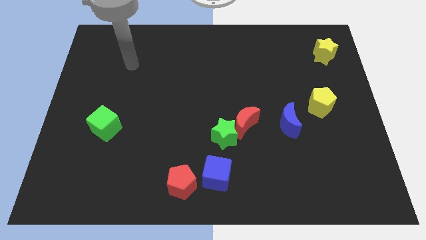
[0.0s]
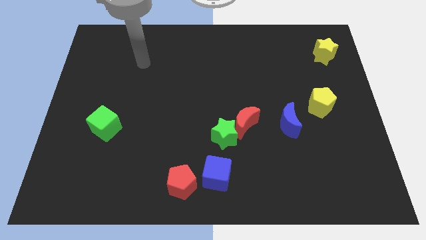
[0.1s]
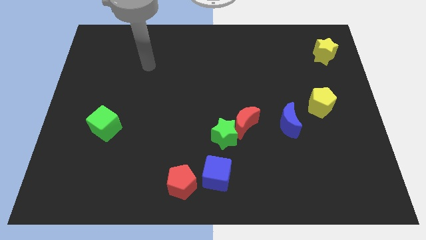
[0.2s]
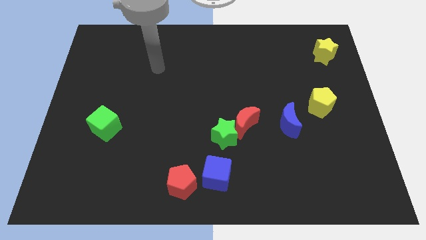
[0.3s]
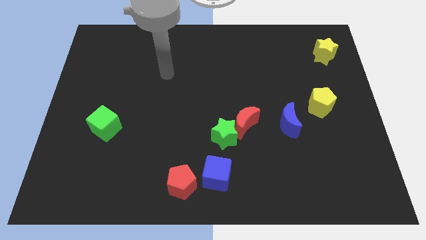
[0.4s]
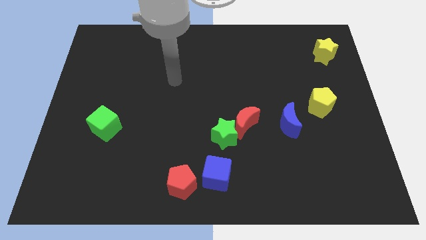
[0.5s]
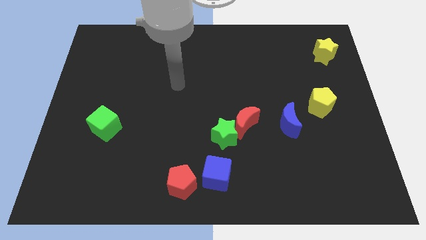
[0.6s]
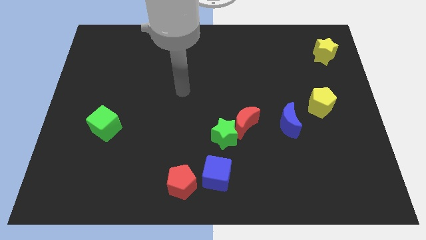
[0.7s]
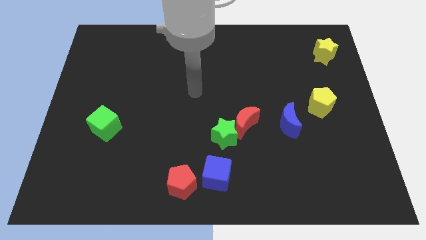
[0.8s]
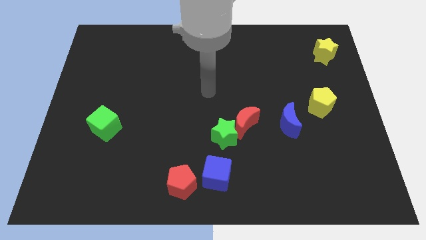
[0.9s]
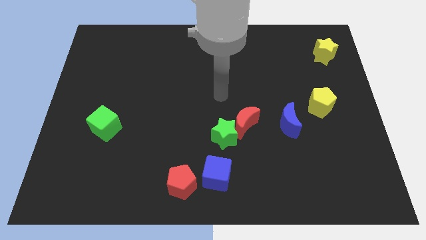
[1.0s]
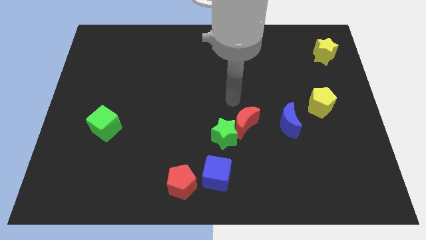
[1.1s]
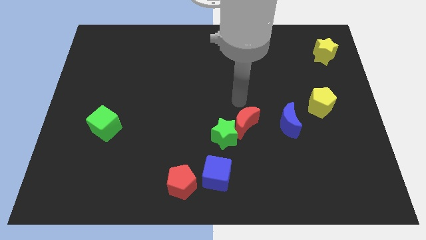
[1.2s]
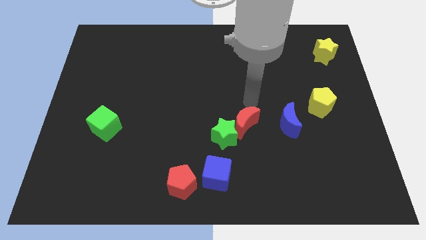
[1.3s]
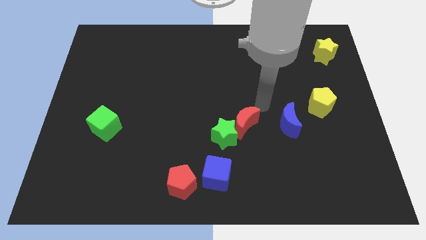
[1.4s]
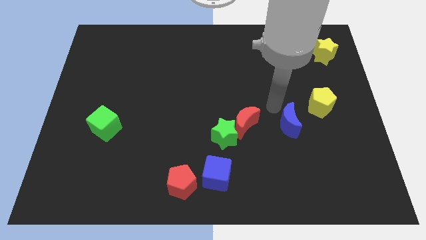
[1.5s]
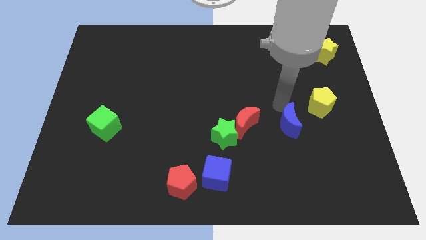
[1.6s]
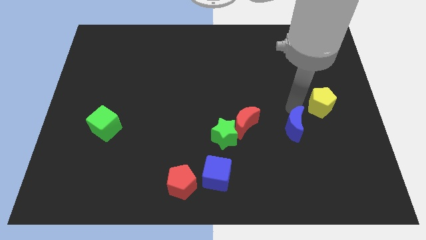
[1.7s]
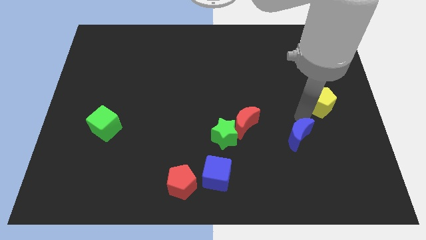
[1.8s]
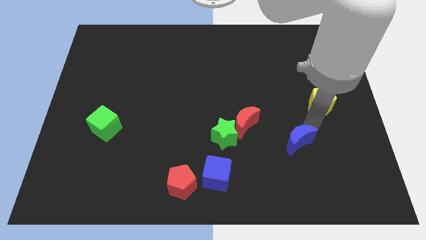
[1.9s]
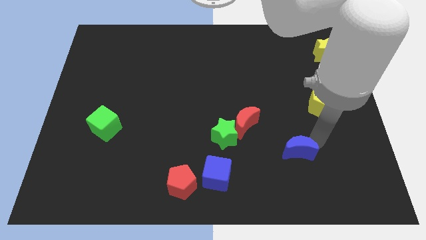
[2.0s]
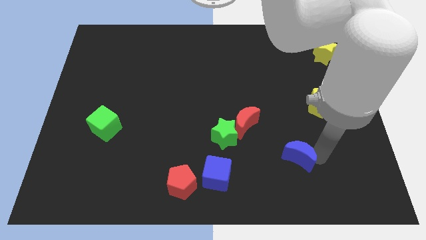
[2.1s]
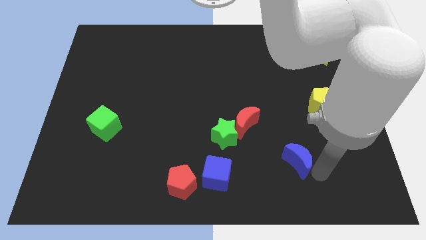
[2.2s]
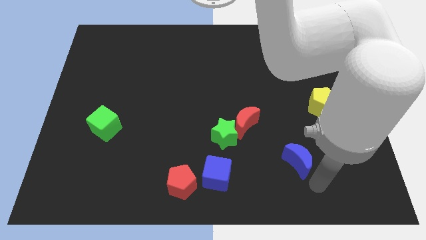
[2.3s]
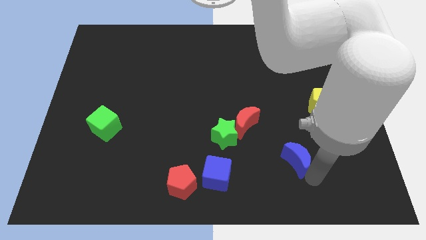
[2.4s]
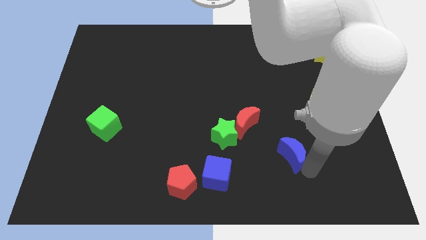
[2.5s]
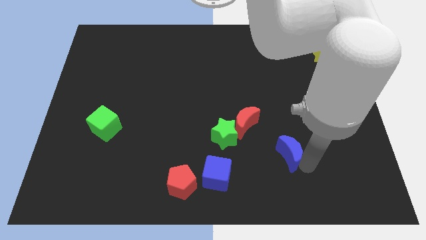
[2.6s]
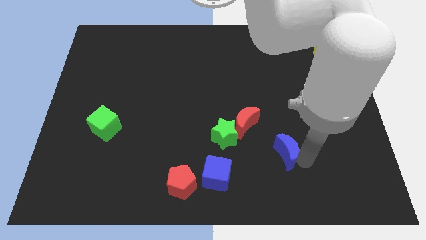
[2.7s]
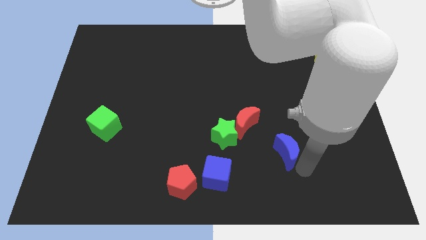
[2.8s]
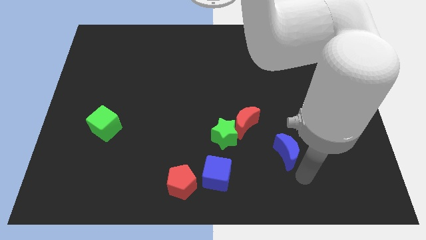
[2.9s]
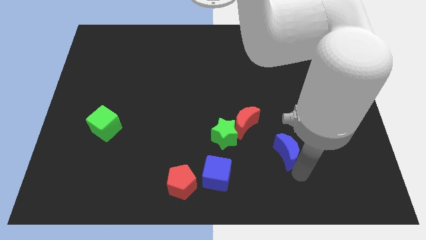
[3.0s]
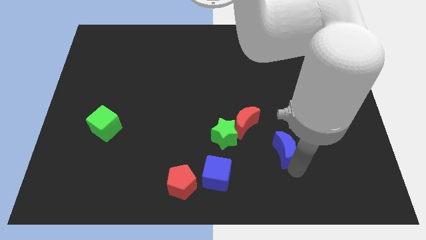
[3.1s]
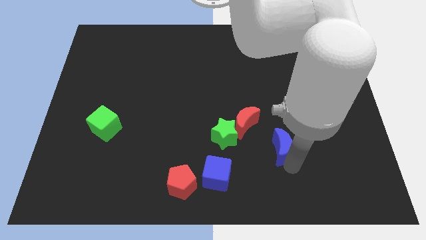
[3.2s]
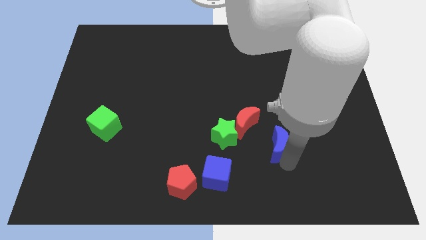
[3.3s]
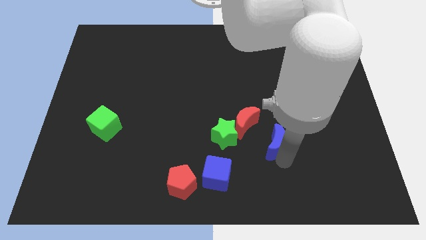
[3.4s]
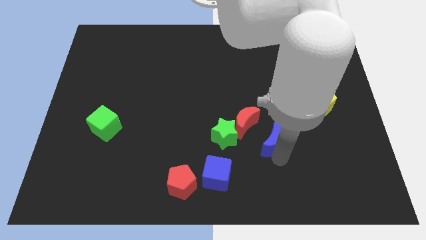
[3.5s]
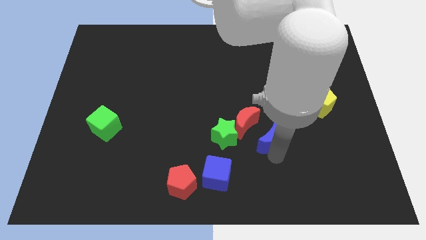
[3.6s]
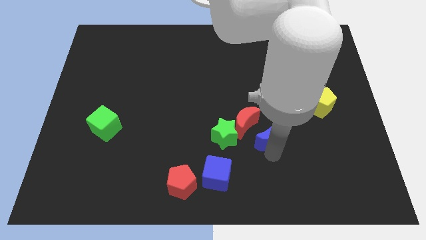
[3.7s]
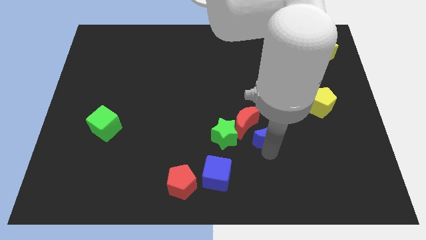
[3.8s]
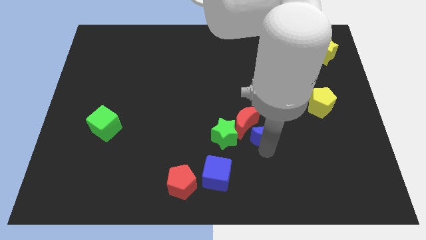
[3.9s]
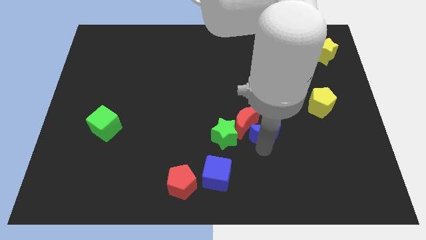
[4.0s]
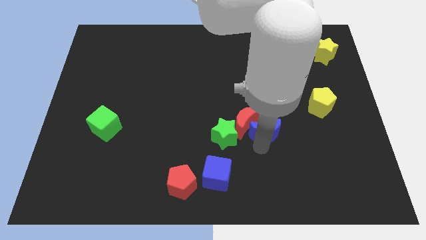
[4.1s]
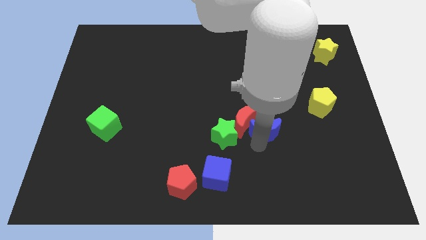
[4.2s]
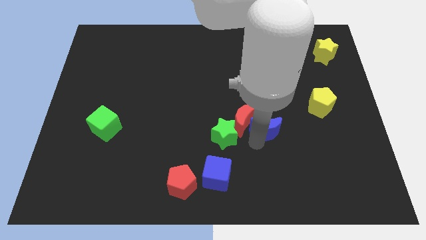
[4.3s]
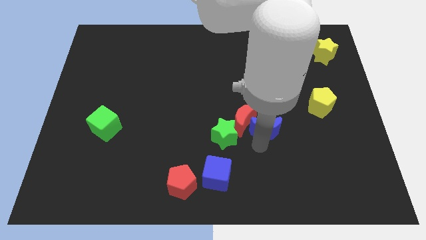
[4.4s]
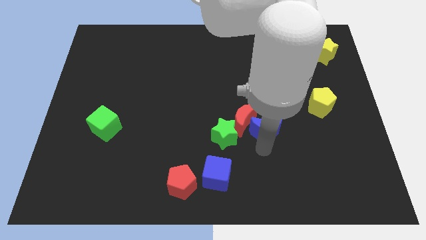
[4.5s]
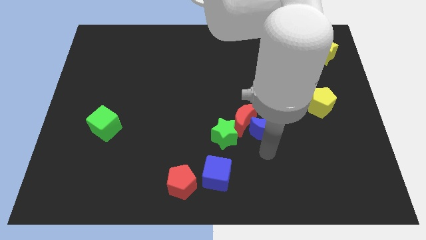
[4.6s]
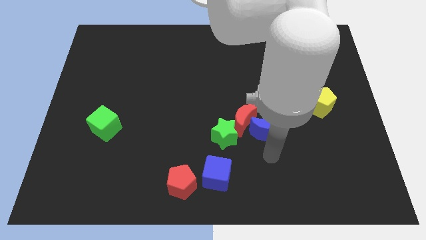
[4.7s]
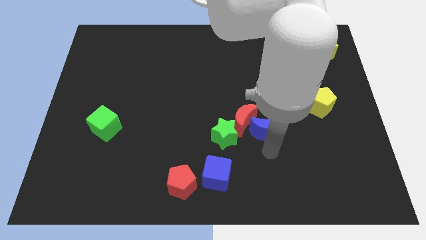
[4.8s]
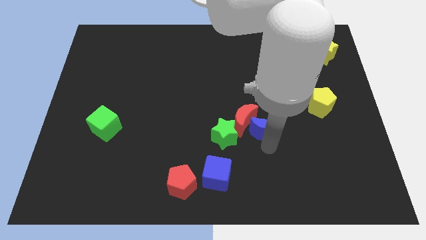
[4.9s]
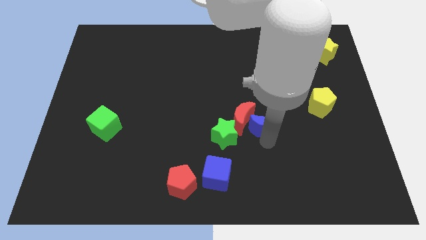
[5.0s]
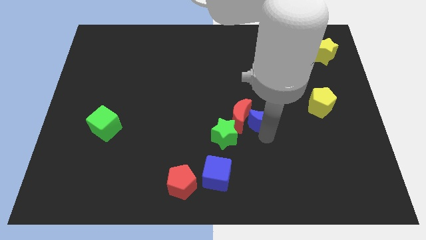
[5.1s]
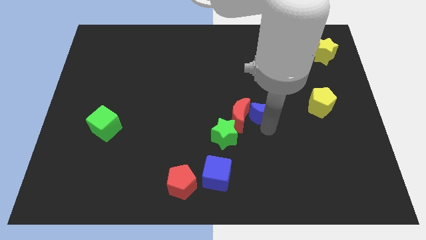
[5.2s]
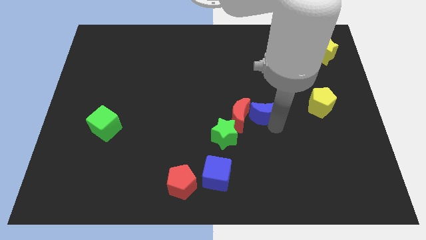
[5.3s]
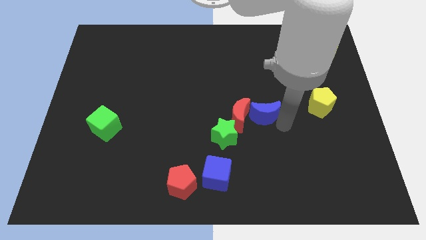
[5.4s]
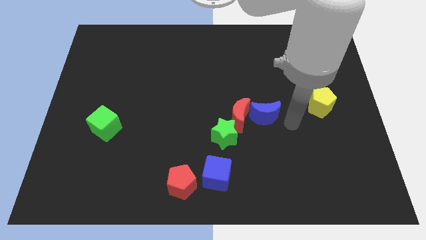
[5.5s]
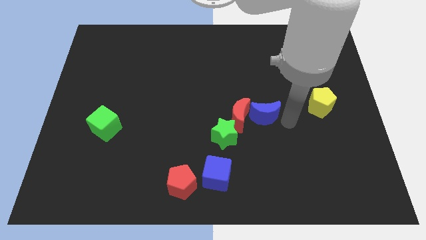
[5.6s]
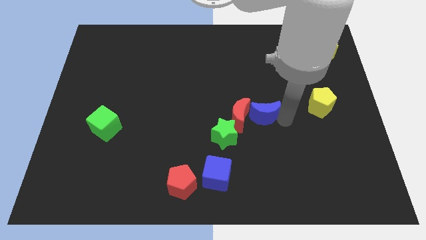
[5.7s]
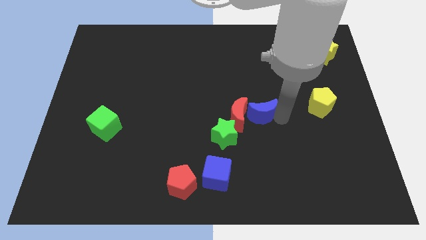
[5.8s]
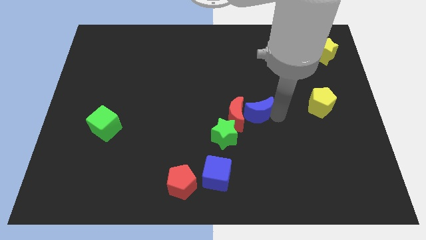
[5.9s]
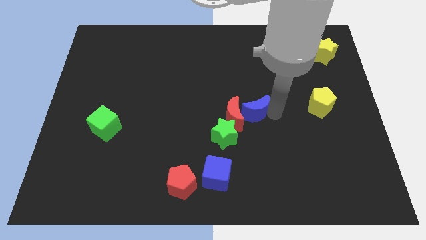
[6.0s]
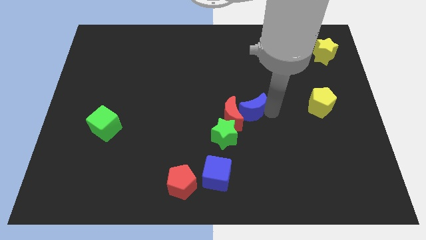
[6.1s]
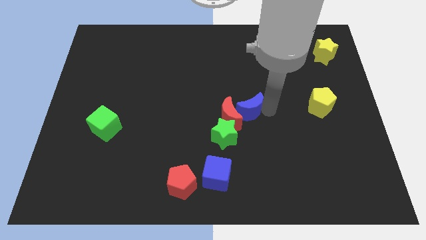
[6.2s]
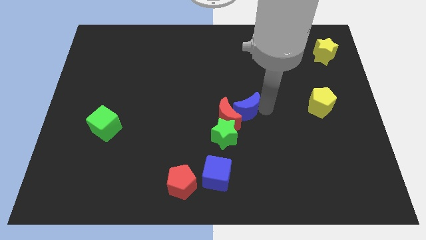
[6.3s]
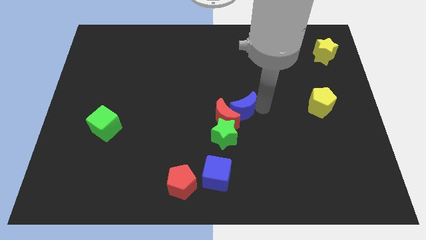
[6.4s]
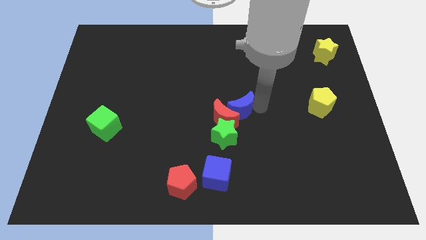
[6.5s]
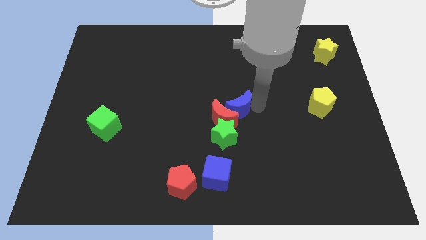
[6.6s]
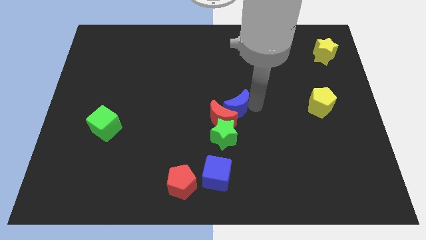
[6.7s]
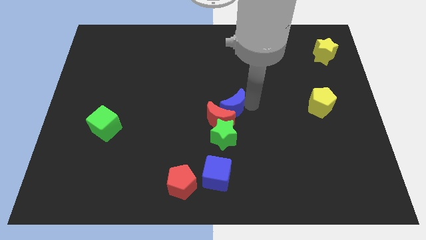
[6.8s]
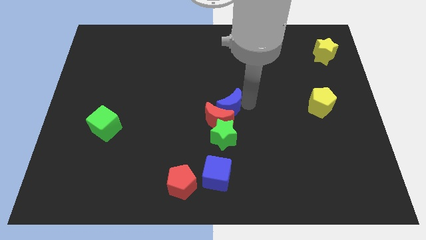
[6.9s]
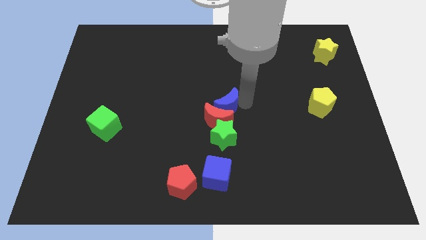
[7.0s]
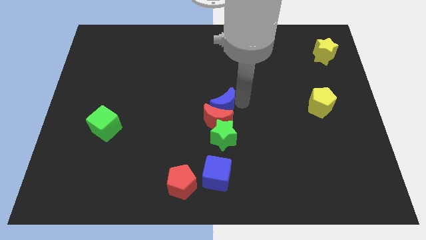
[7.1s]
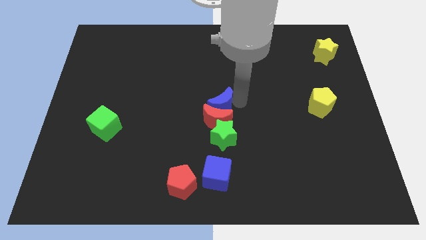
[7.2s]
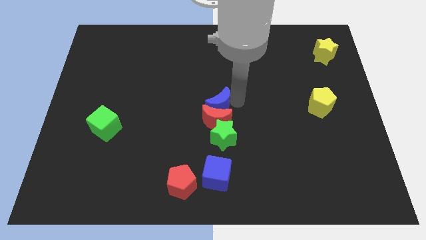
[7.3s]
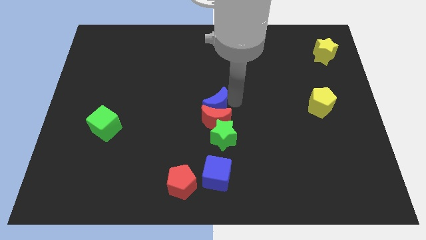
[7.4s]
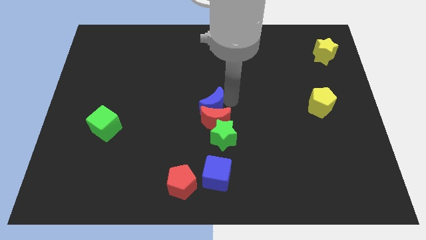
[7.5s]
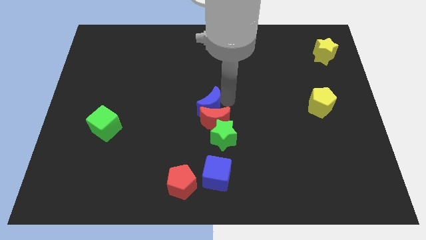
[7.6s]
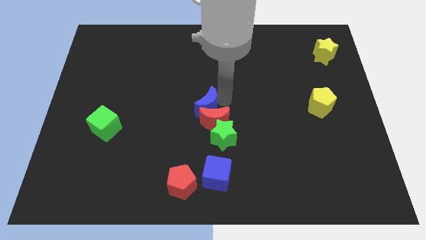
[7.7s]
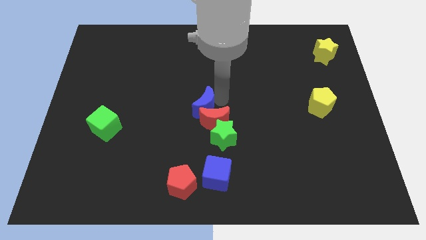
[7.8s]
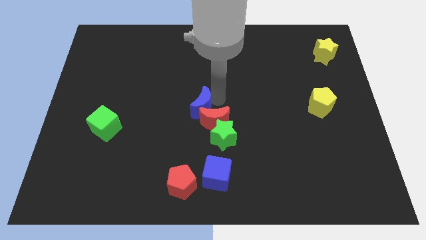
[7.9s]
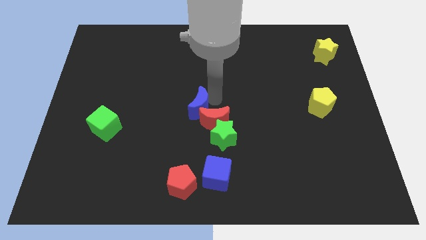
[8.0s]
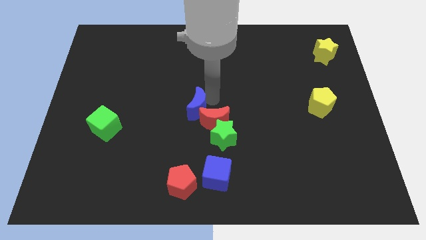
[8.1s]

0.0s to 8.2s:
push the blue moon left
